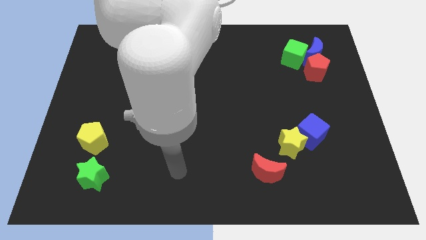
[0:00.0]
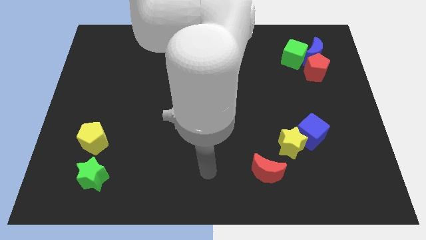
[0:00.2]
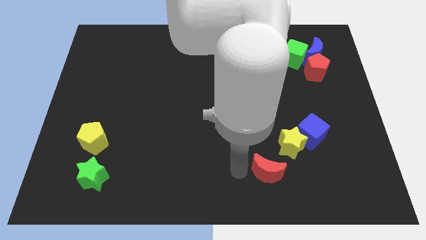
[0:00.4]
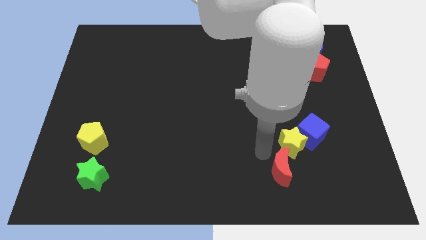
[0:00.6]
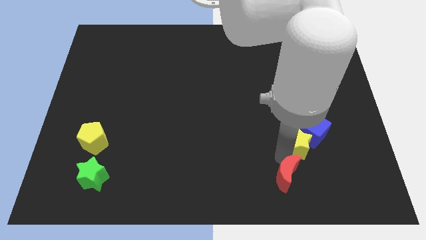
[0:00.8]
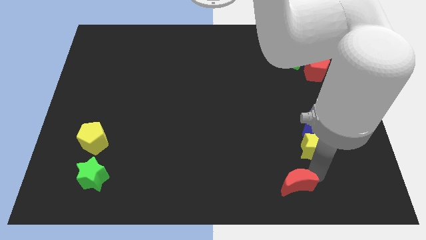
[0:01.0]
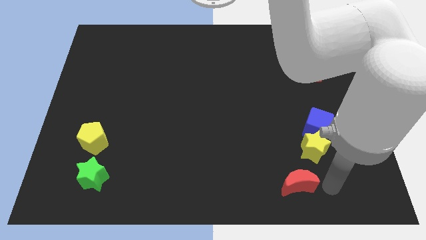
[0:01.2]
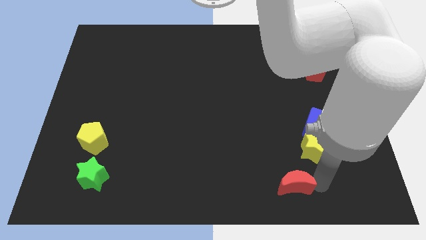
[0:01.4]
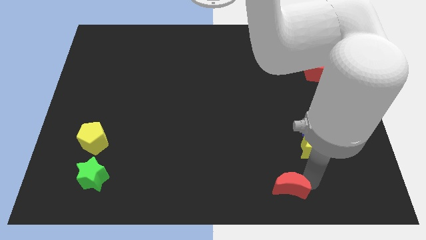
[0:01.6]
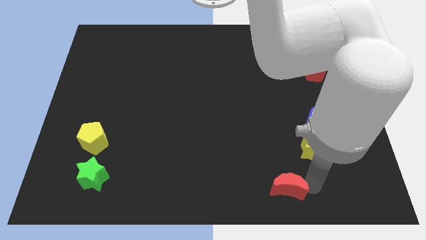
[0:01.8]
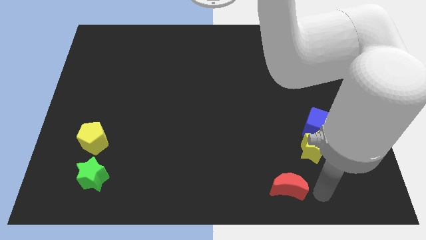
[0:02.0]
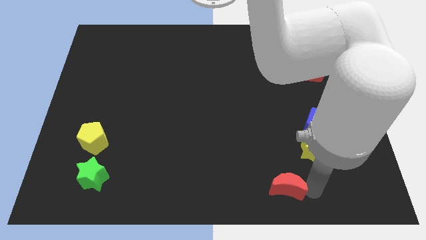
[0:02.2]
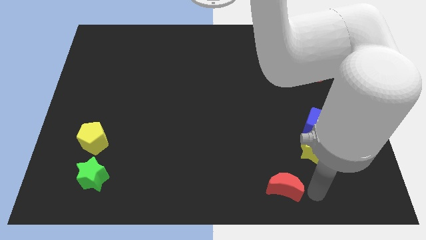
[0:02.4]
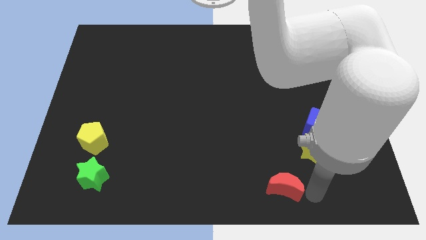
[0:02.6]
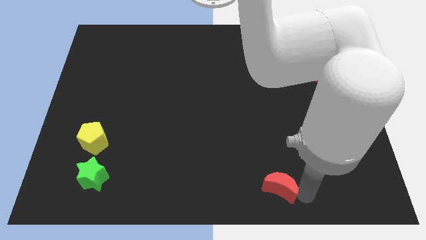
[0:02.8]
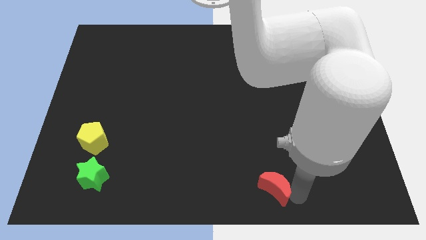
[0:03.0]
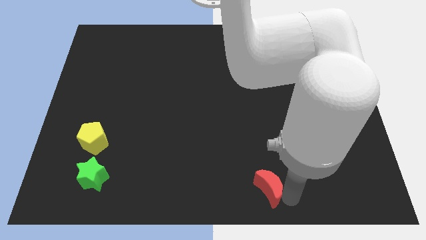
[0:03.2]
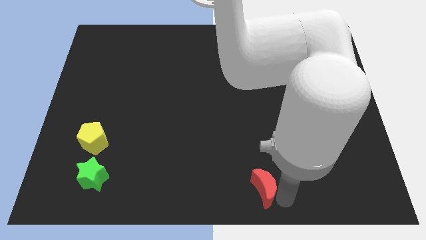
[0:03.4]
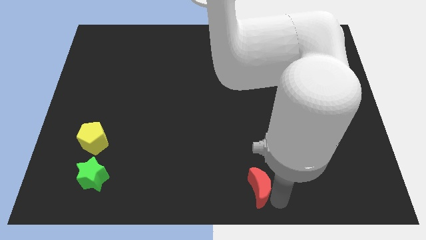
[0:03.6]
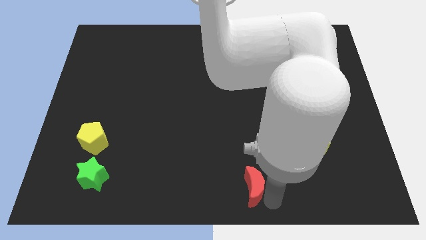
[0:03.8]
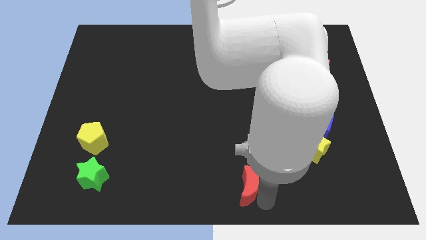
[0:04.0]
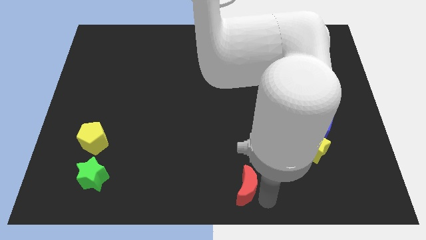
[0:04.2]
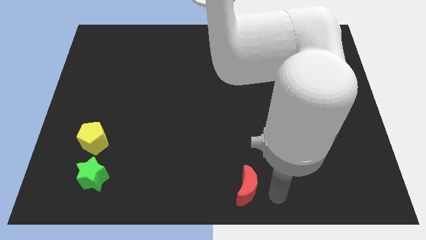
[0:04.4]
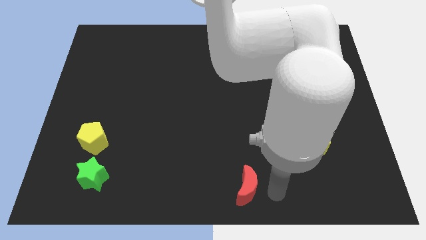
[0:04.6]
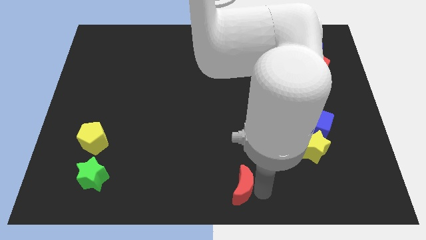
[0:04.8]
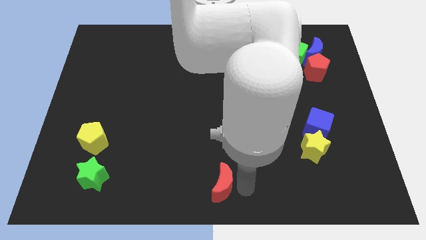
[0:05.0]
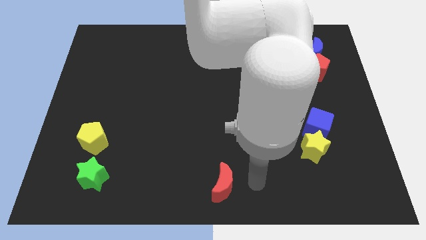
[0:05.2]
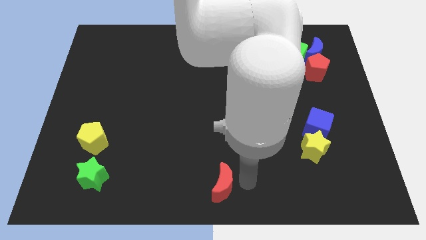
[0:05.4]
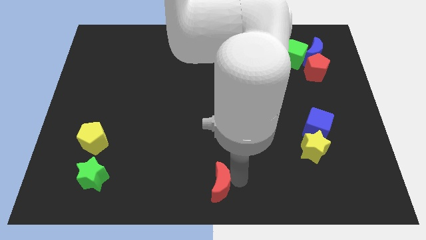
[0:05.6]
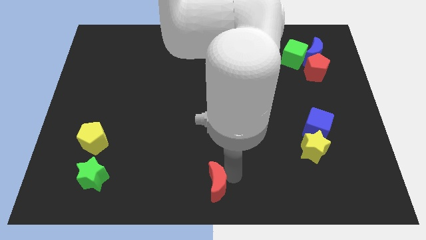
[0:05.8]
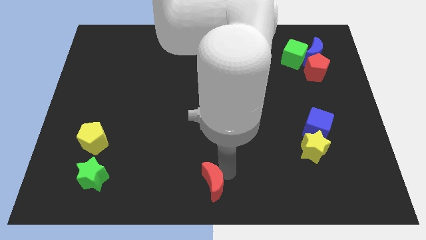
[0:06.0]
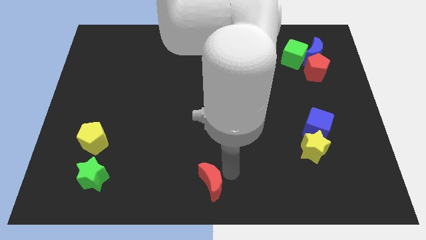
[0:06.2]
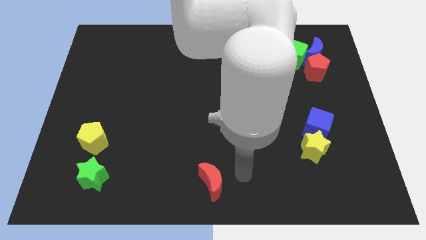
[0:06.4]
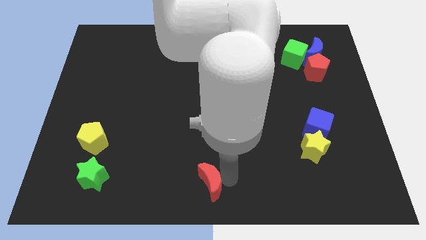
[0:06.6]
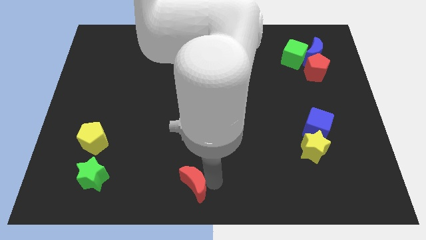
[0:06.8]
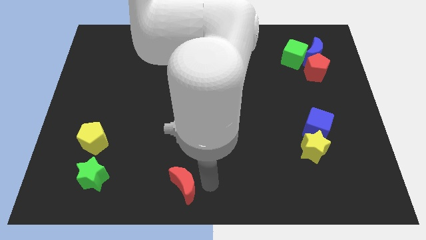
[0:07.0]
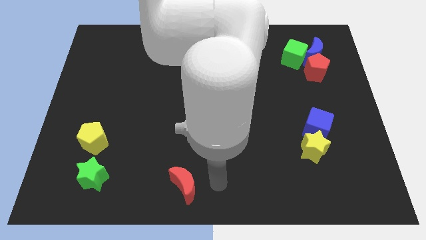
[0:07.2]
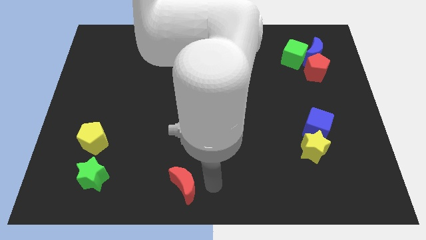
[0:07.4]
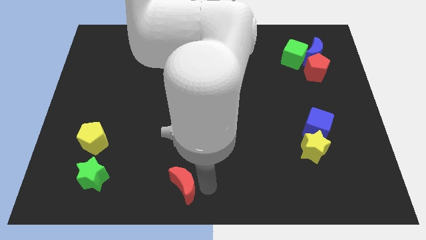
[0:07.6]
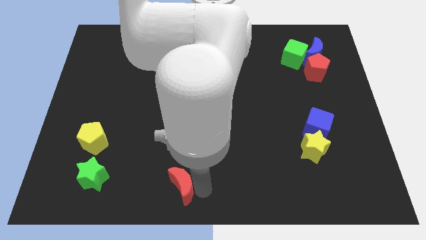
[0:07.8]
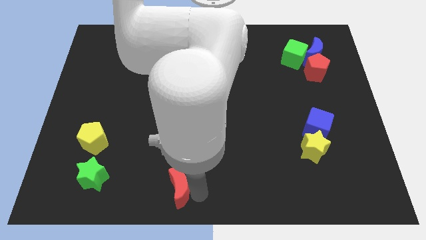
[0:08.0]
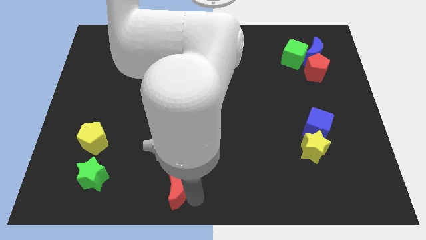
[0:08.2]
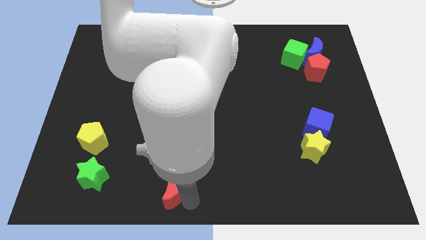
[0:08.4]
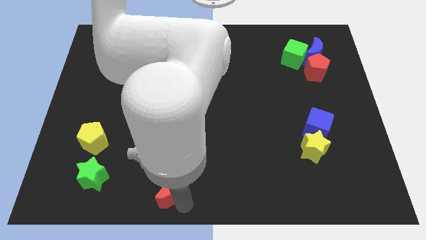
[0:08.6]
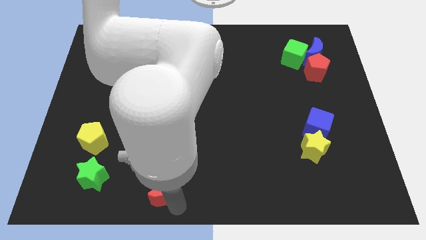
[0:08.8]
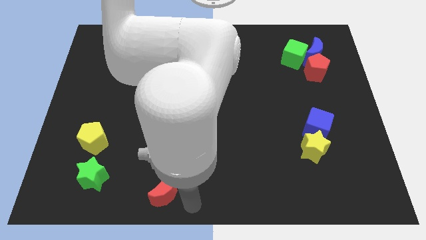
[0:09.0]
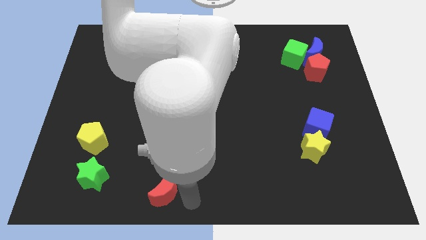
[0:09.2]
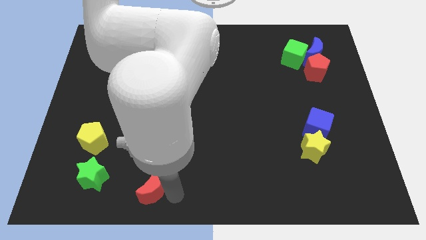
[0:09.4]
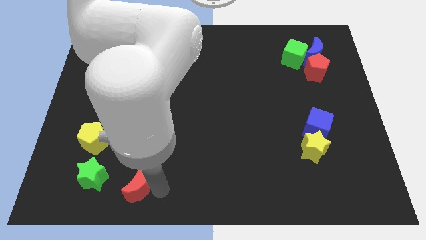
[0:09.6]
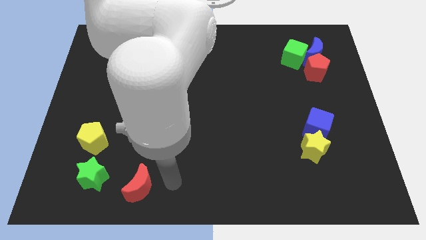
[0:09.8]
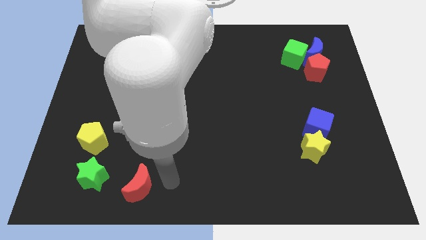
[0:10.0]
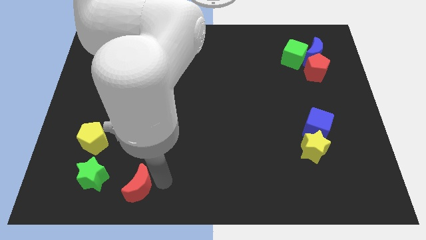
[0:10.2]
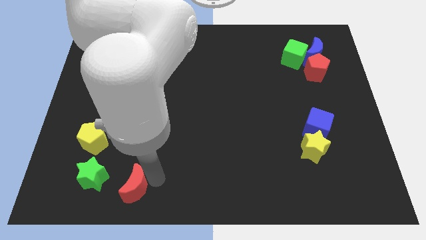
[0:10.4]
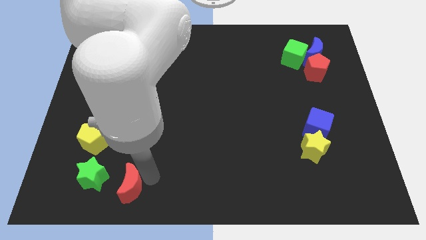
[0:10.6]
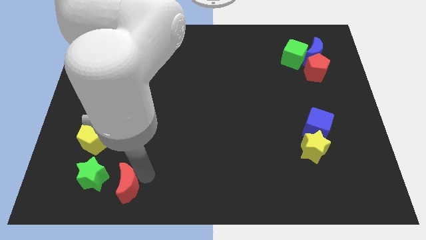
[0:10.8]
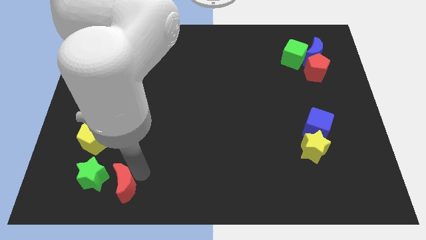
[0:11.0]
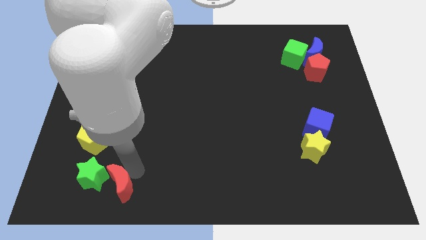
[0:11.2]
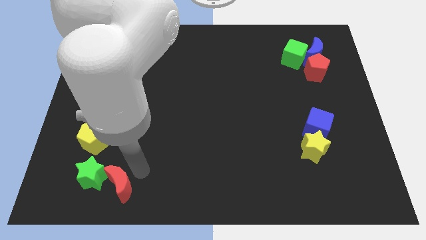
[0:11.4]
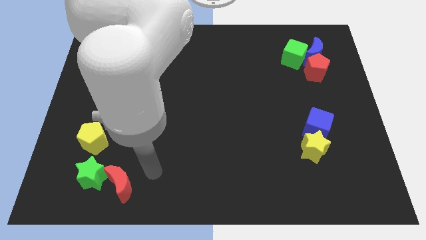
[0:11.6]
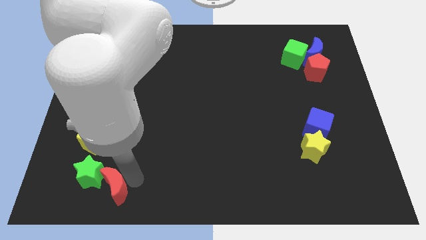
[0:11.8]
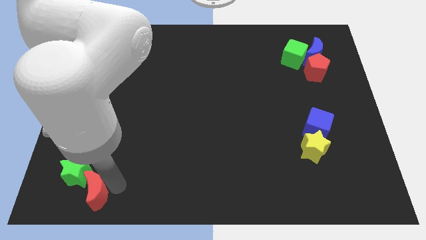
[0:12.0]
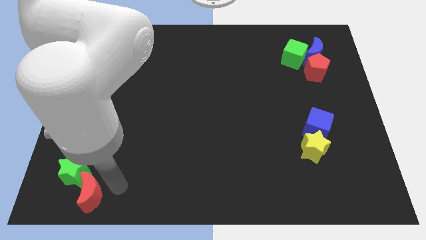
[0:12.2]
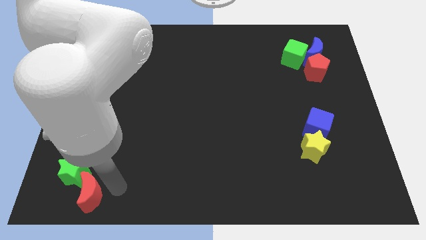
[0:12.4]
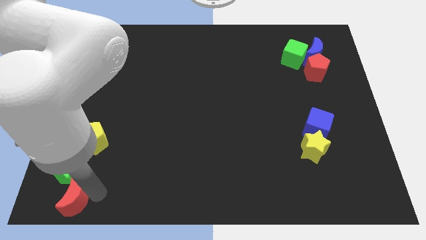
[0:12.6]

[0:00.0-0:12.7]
move the red moon to the bottom left

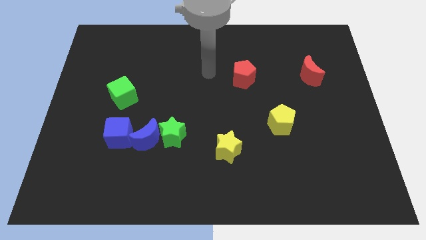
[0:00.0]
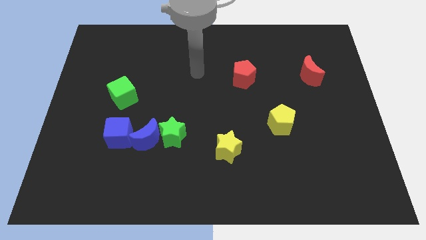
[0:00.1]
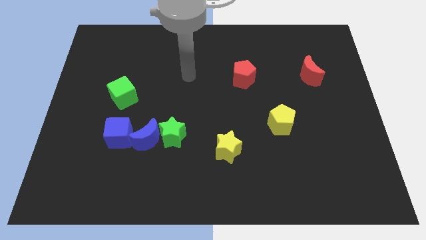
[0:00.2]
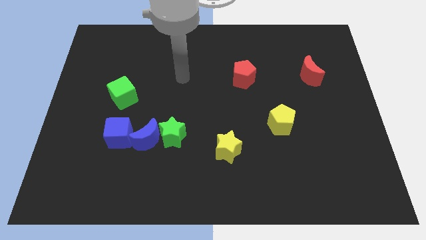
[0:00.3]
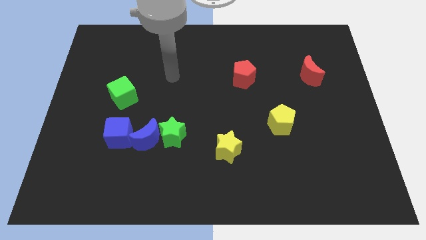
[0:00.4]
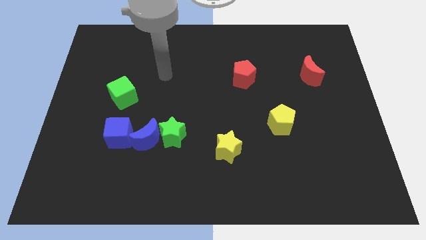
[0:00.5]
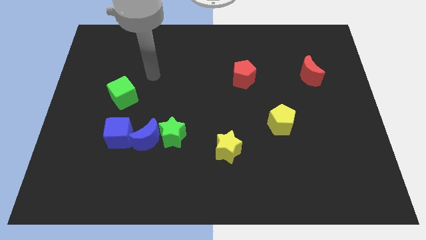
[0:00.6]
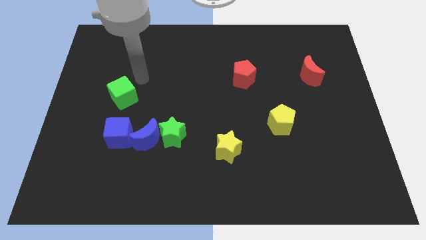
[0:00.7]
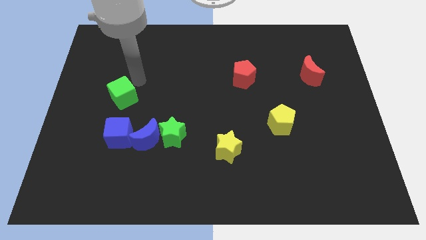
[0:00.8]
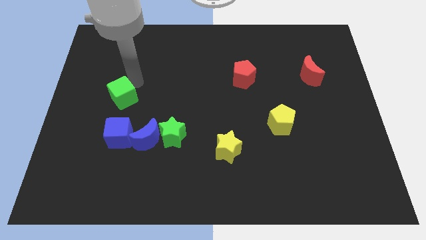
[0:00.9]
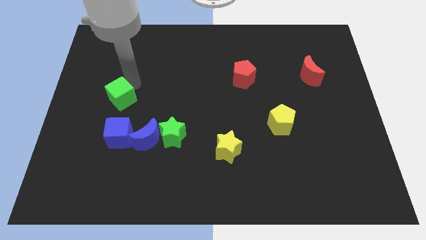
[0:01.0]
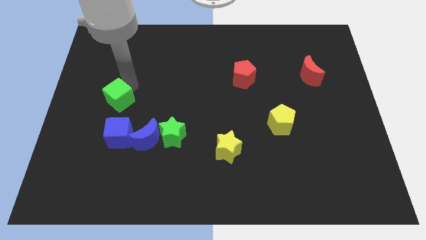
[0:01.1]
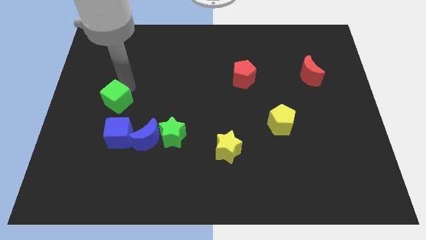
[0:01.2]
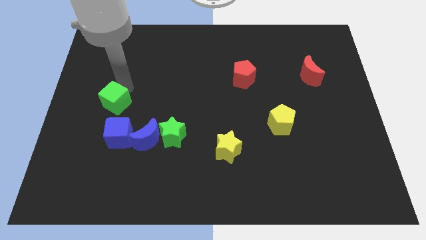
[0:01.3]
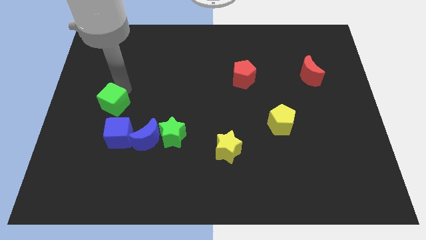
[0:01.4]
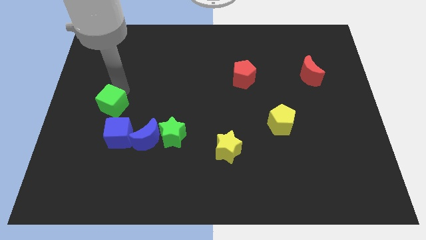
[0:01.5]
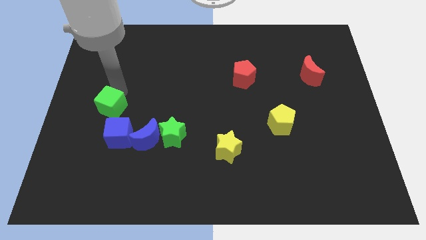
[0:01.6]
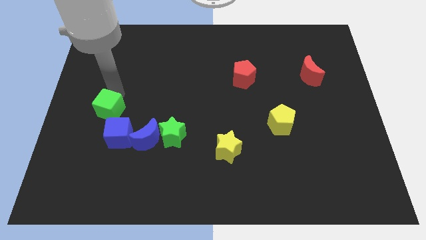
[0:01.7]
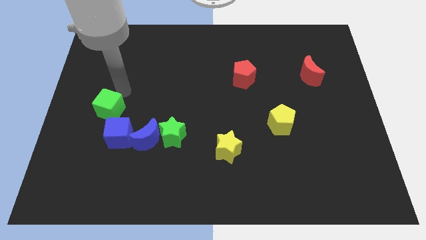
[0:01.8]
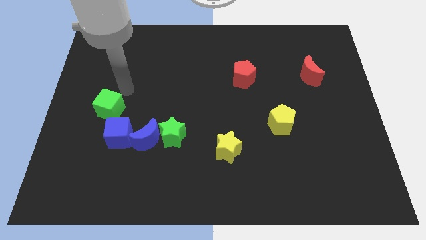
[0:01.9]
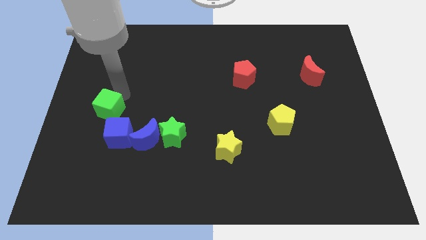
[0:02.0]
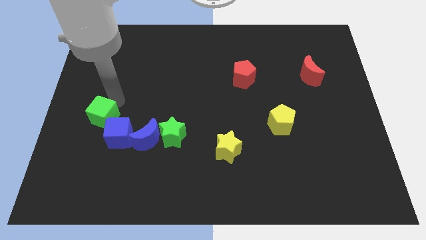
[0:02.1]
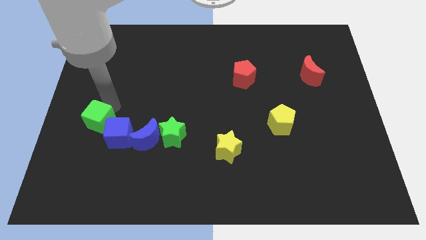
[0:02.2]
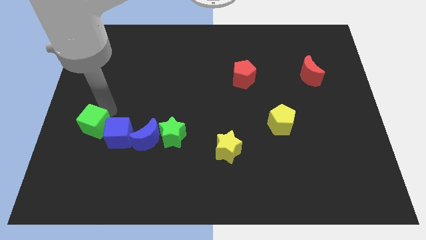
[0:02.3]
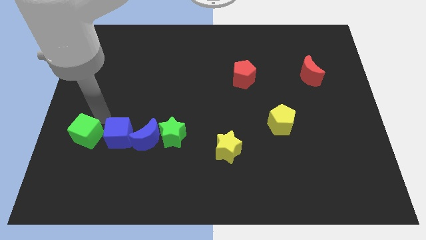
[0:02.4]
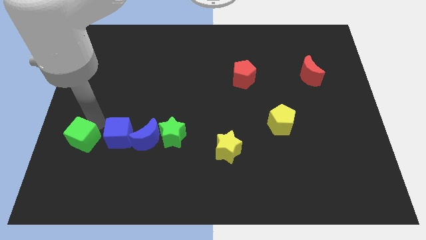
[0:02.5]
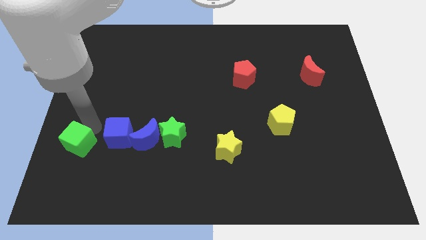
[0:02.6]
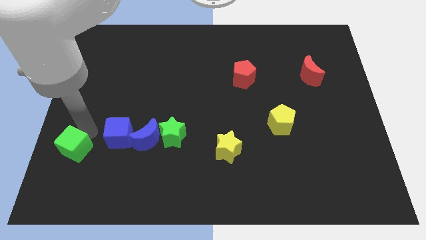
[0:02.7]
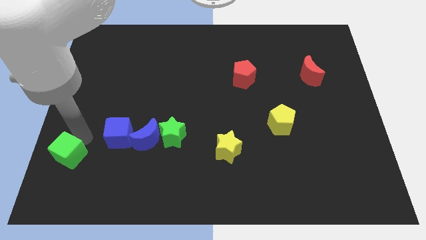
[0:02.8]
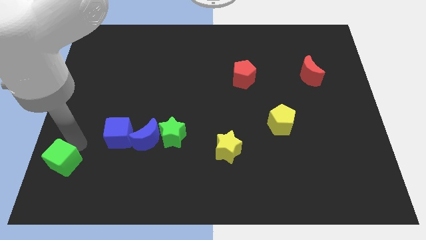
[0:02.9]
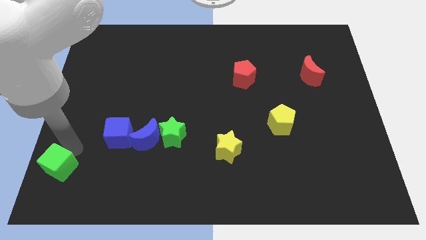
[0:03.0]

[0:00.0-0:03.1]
slide the green cube to the bottom left corner
